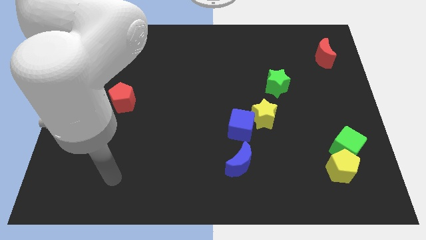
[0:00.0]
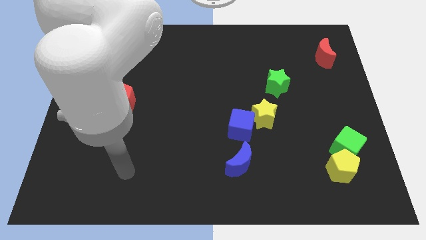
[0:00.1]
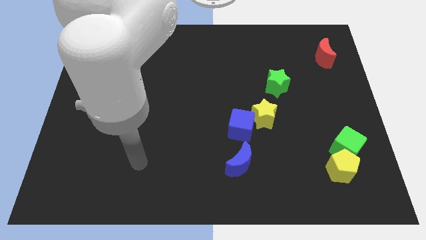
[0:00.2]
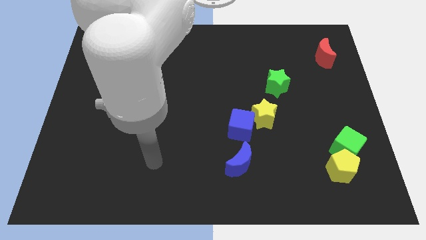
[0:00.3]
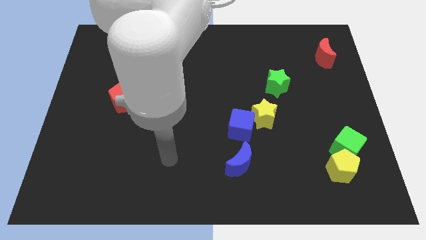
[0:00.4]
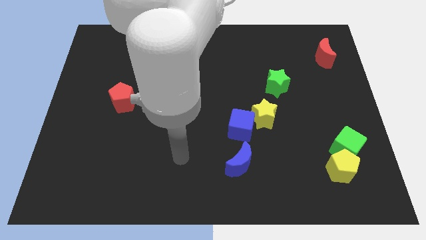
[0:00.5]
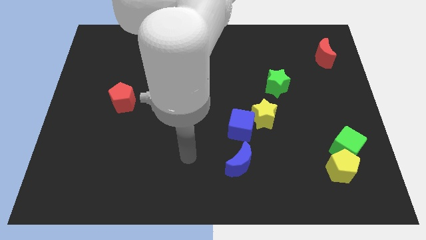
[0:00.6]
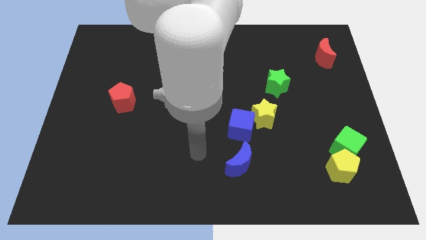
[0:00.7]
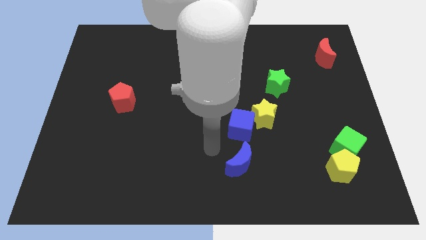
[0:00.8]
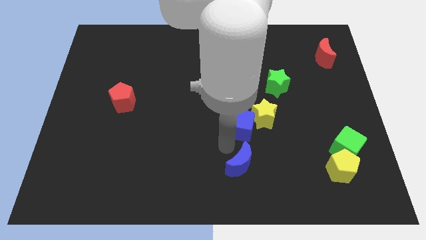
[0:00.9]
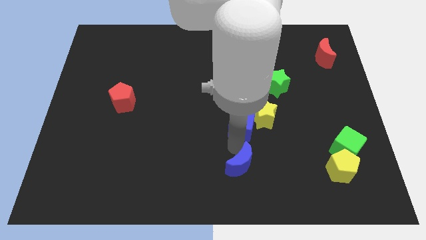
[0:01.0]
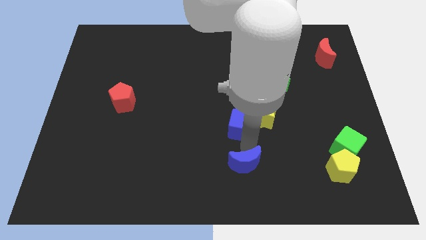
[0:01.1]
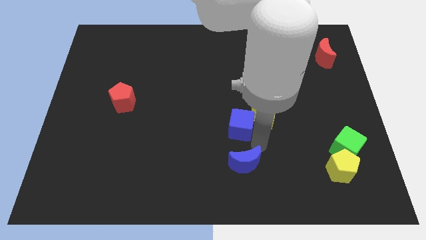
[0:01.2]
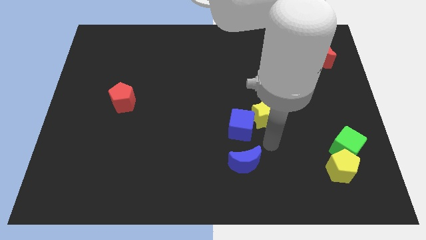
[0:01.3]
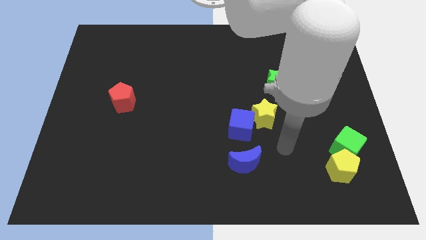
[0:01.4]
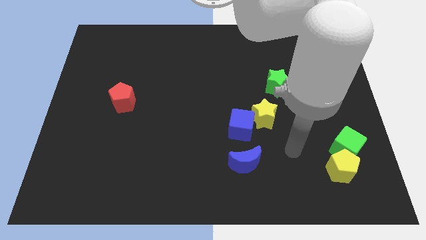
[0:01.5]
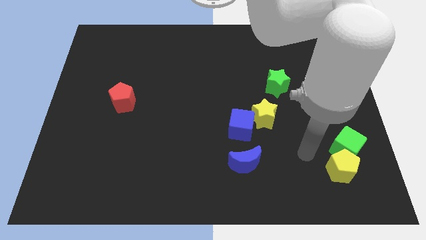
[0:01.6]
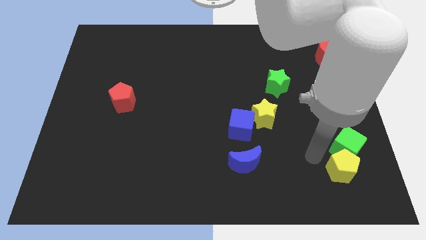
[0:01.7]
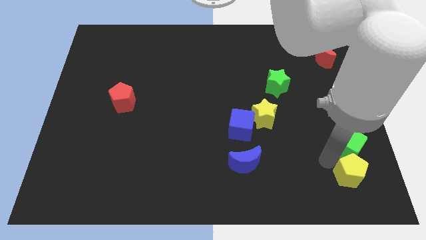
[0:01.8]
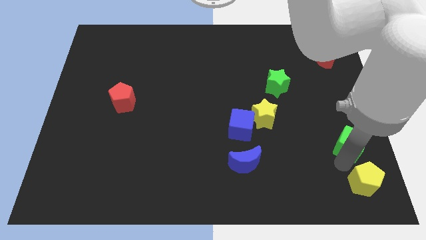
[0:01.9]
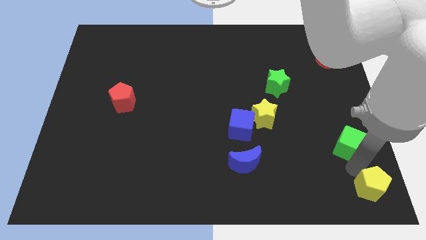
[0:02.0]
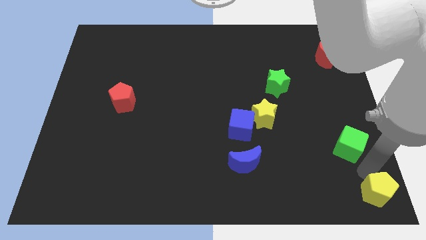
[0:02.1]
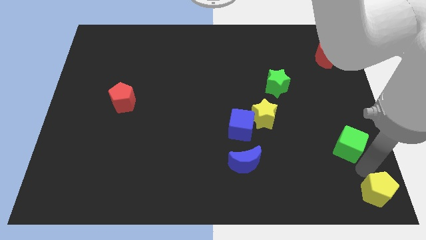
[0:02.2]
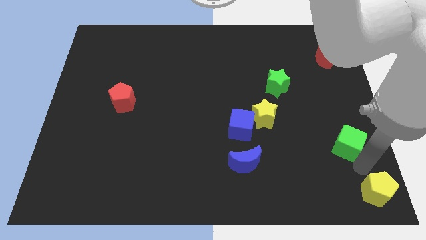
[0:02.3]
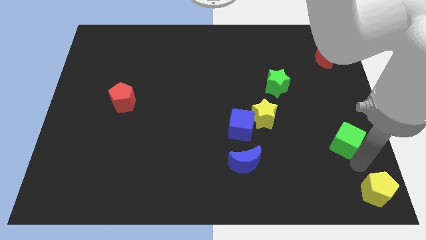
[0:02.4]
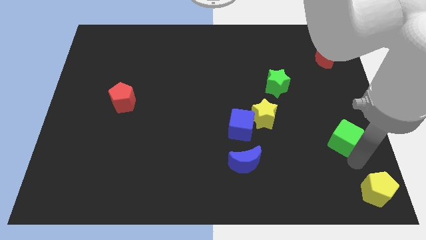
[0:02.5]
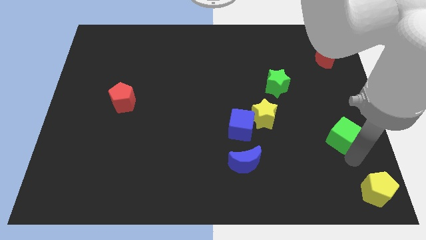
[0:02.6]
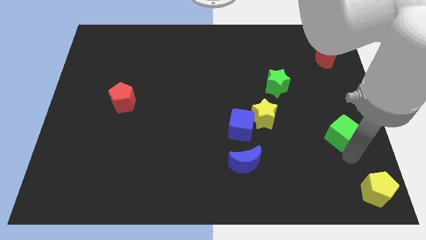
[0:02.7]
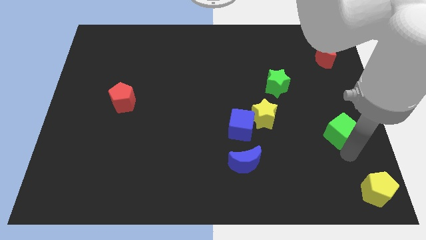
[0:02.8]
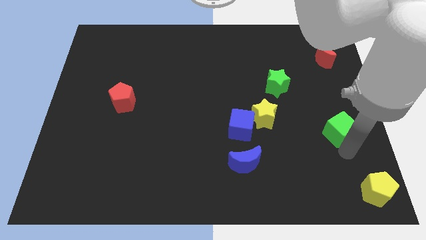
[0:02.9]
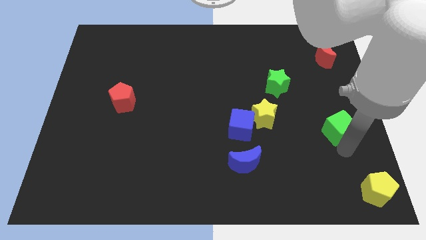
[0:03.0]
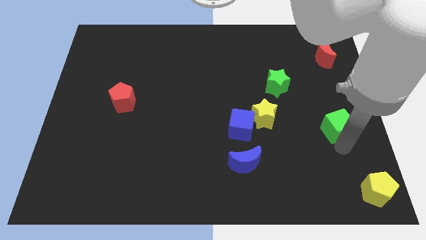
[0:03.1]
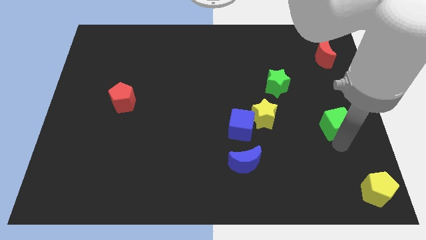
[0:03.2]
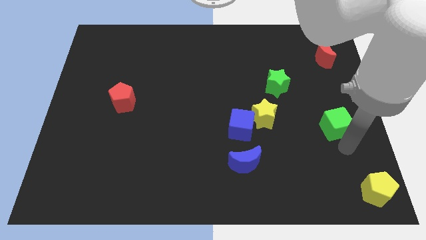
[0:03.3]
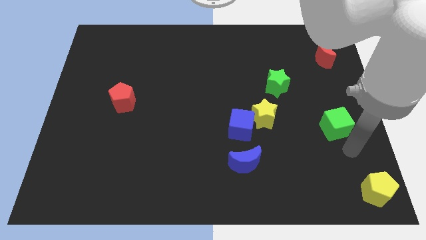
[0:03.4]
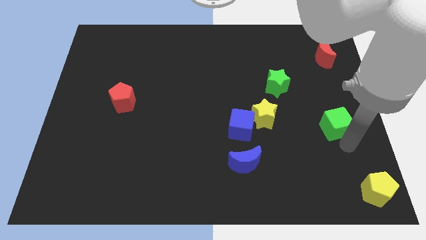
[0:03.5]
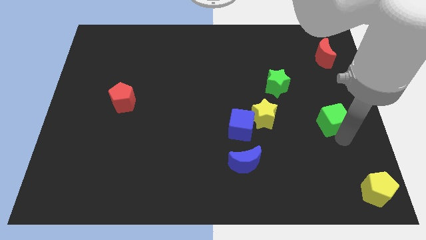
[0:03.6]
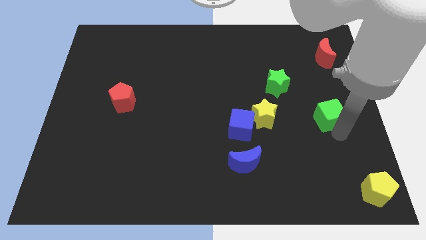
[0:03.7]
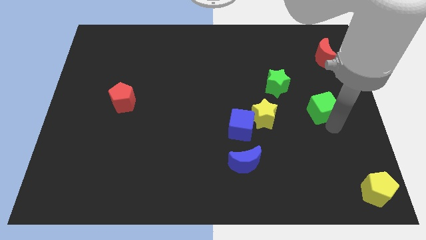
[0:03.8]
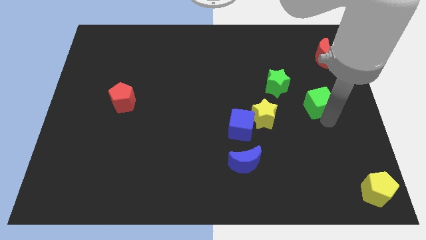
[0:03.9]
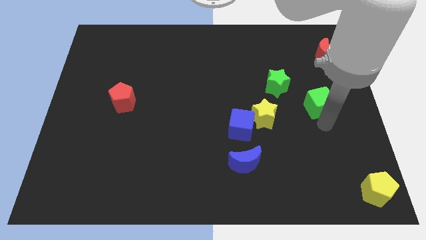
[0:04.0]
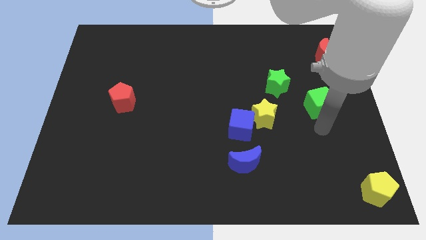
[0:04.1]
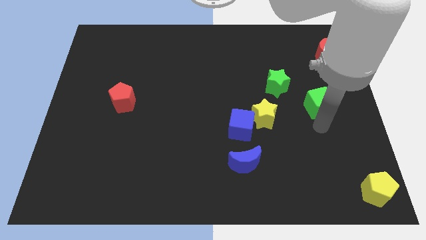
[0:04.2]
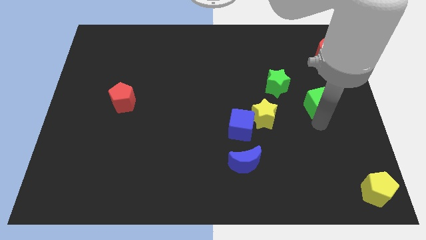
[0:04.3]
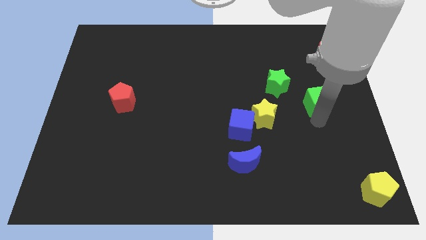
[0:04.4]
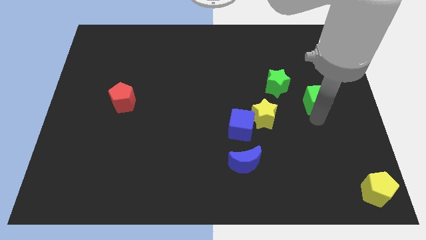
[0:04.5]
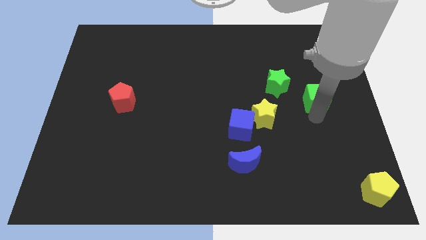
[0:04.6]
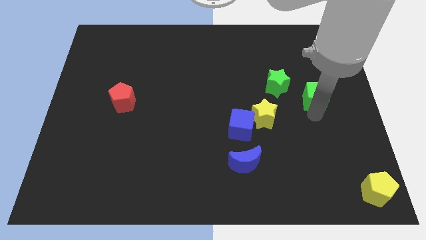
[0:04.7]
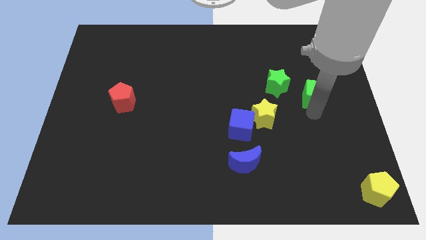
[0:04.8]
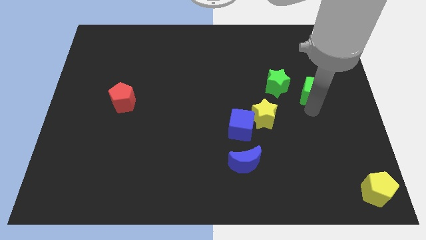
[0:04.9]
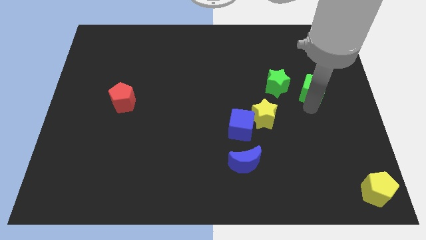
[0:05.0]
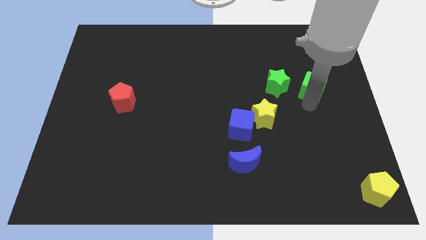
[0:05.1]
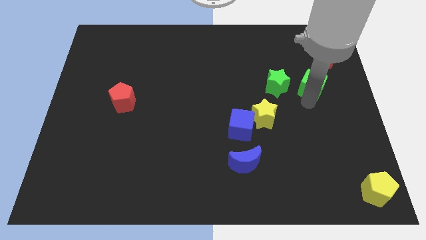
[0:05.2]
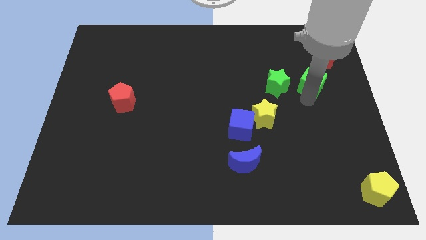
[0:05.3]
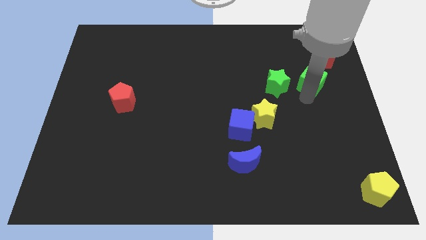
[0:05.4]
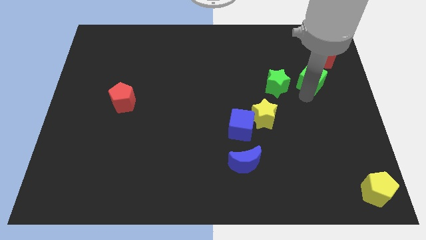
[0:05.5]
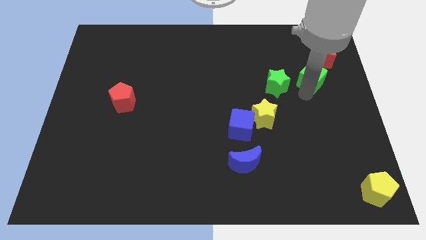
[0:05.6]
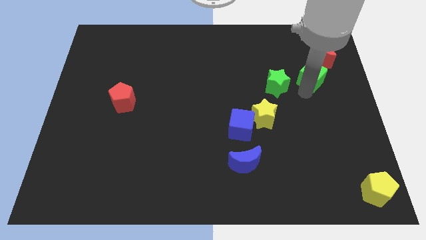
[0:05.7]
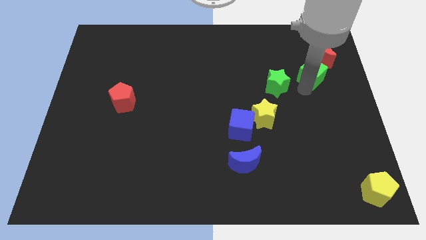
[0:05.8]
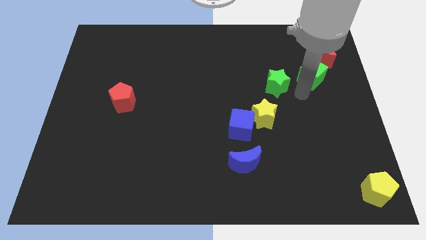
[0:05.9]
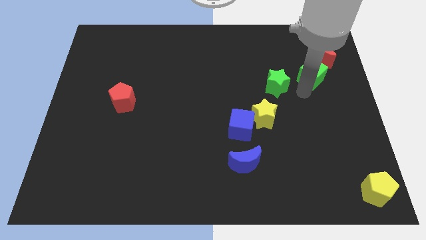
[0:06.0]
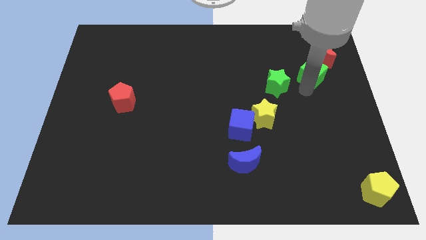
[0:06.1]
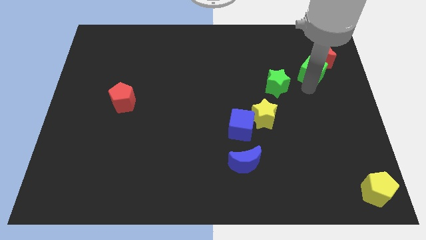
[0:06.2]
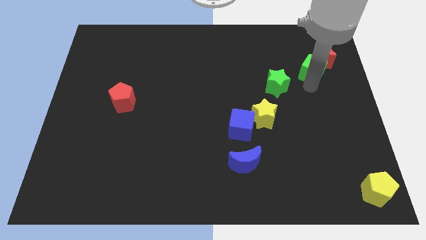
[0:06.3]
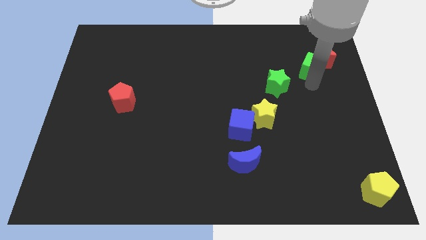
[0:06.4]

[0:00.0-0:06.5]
move the green cube to the red moon

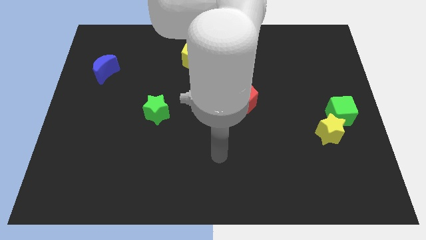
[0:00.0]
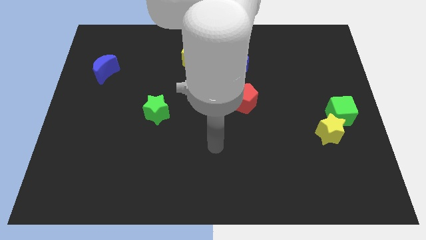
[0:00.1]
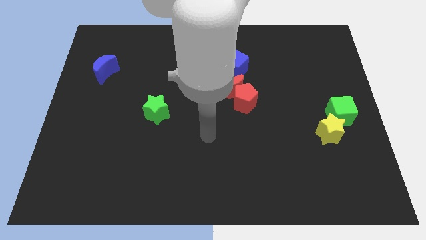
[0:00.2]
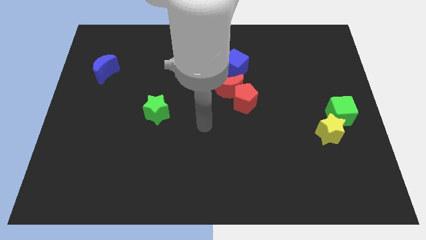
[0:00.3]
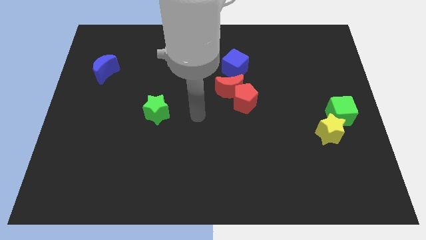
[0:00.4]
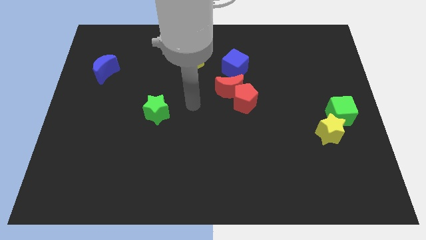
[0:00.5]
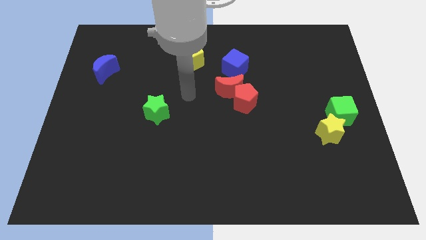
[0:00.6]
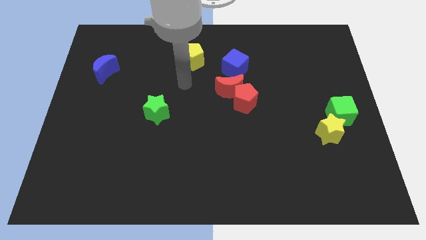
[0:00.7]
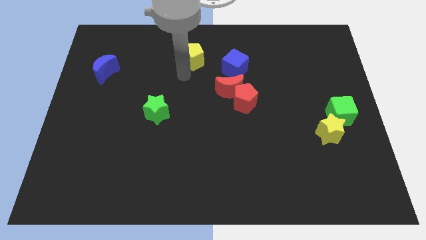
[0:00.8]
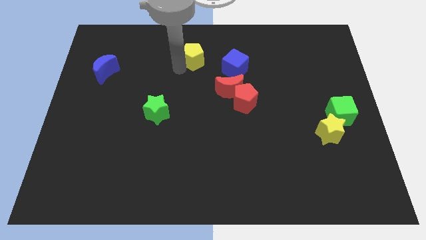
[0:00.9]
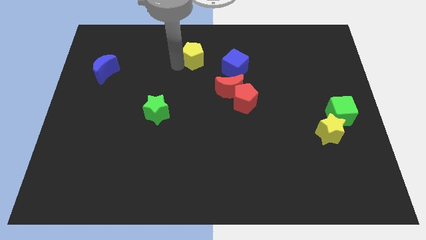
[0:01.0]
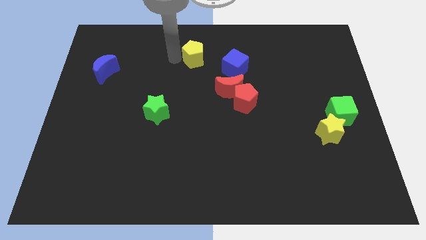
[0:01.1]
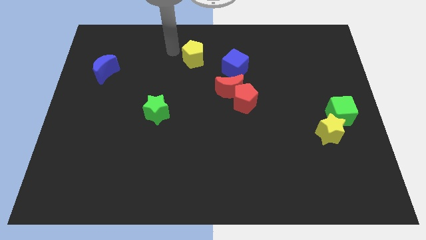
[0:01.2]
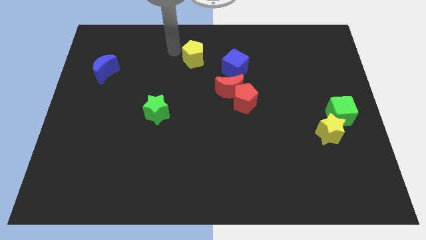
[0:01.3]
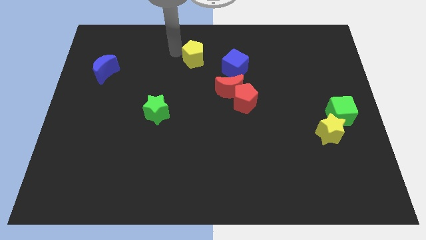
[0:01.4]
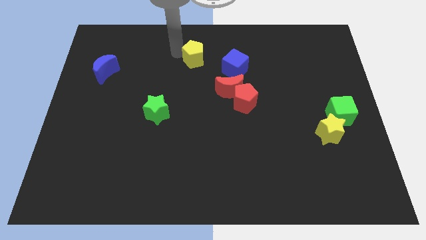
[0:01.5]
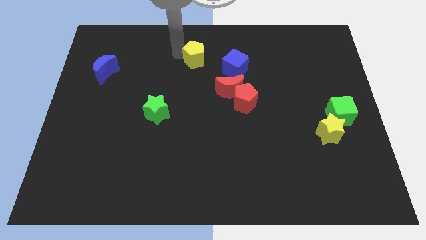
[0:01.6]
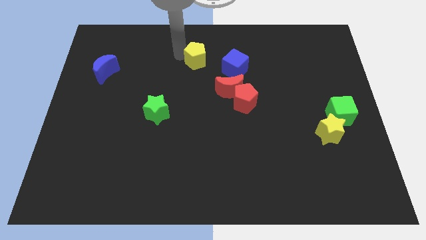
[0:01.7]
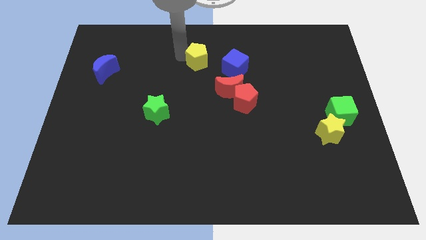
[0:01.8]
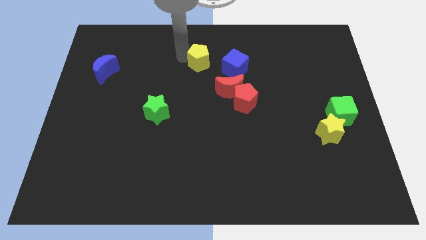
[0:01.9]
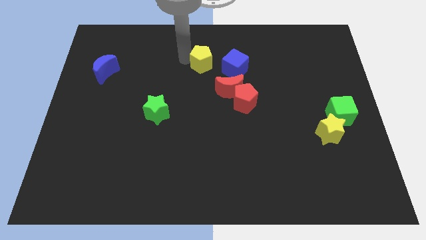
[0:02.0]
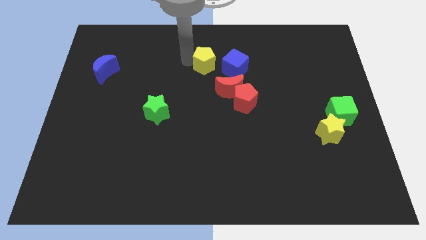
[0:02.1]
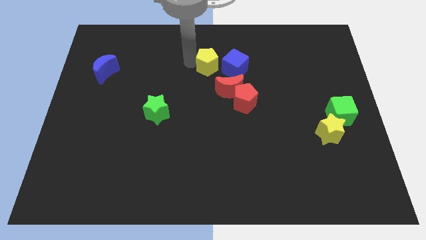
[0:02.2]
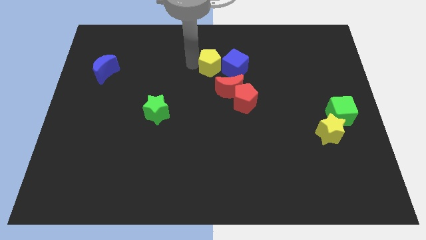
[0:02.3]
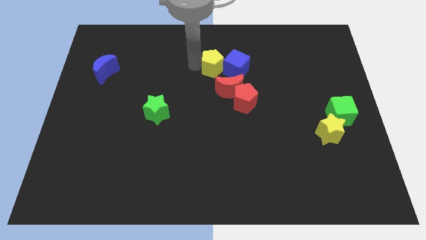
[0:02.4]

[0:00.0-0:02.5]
push the yellow pentagon next to the blue cube
